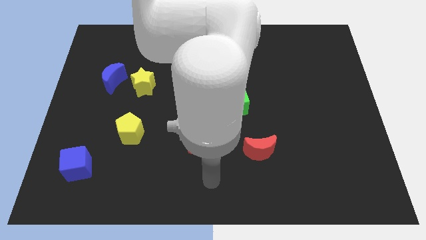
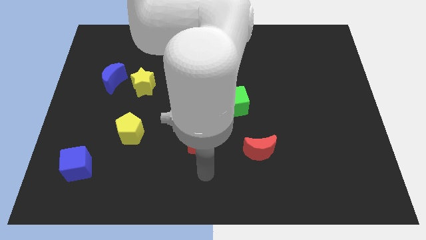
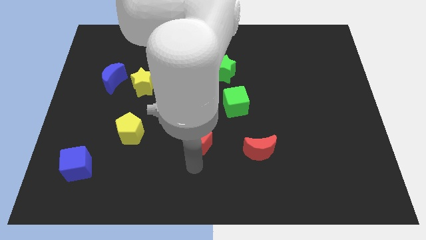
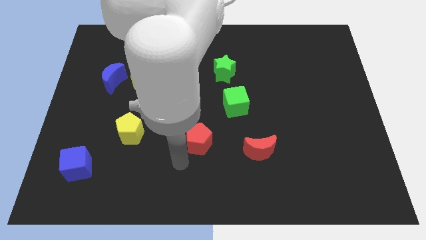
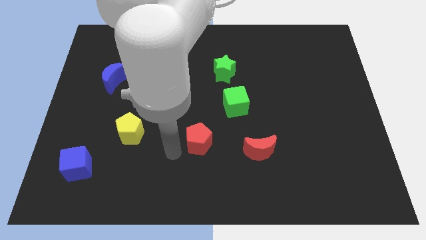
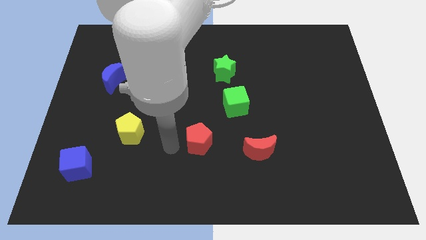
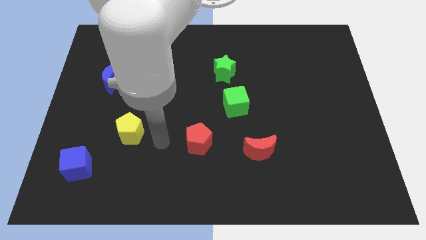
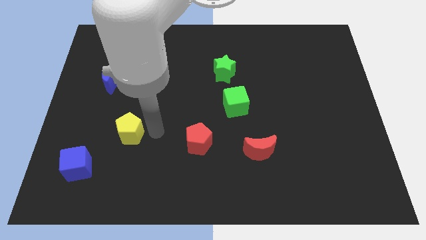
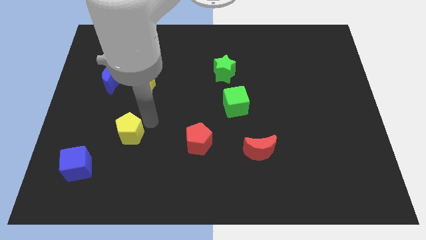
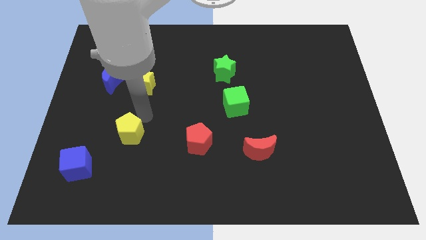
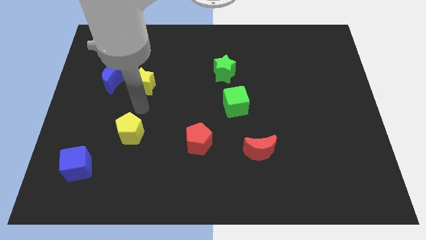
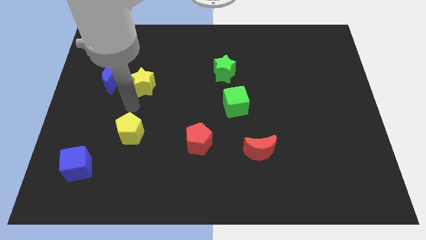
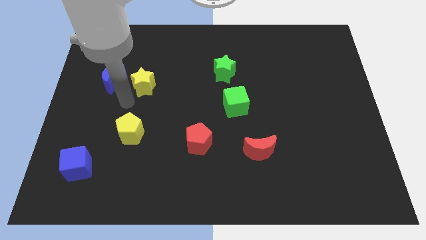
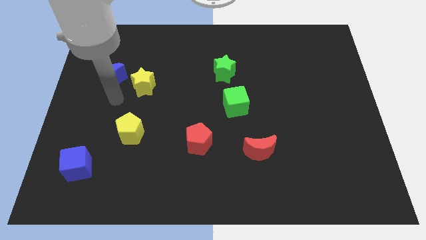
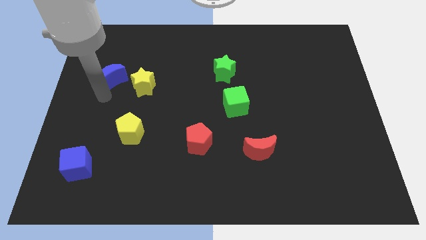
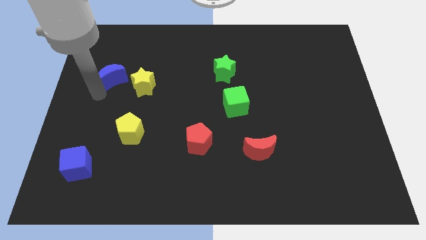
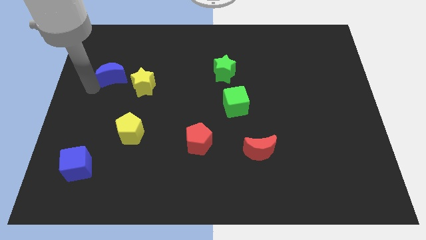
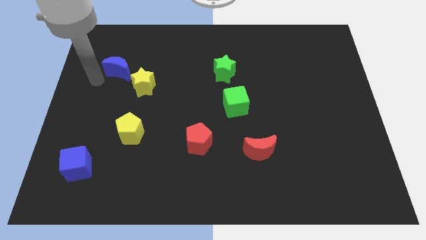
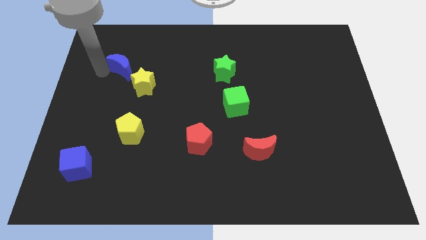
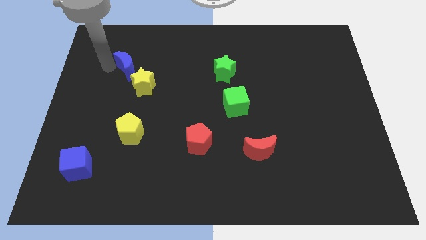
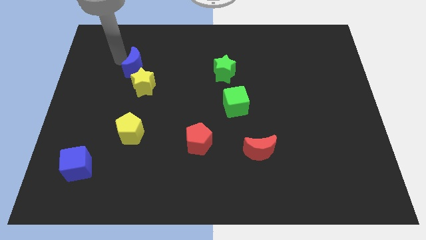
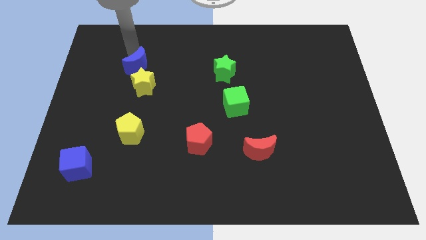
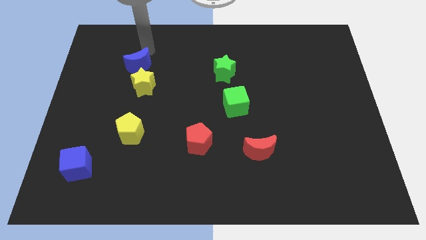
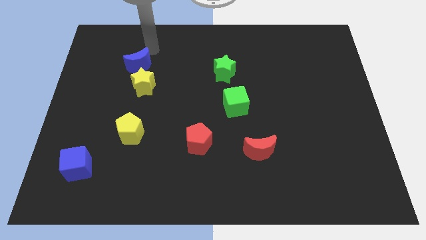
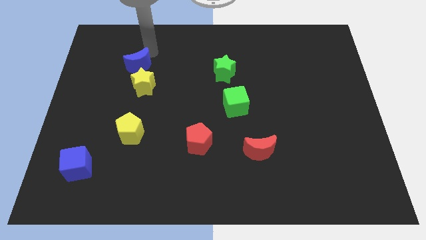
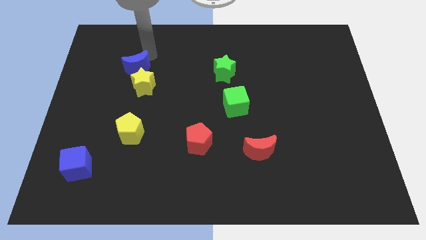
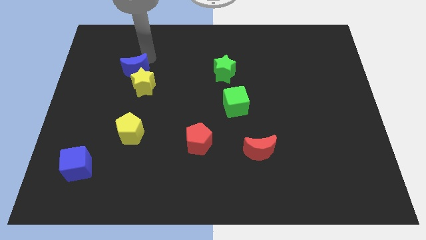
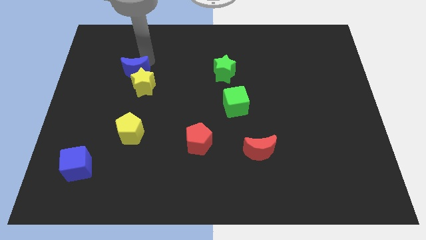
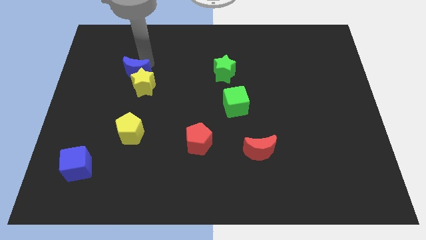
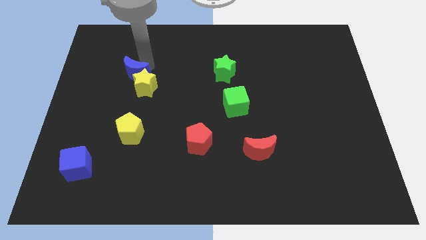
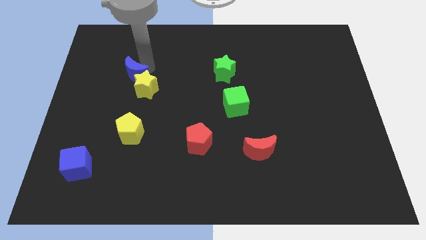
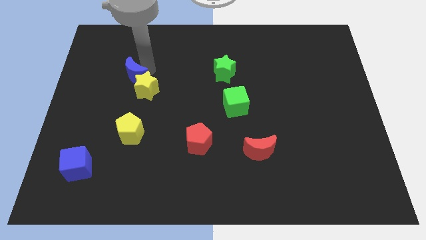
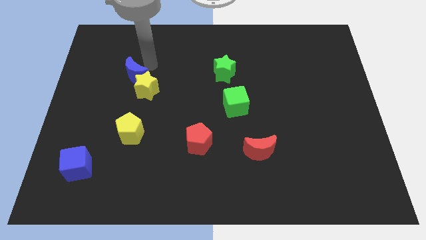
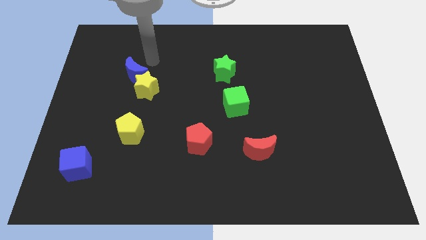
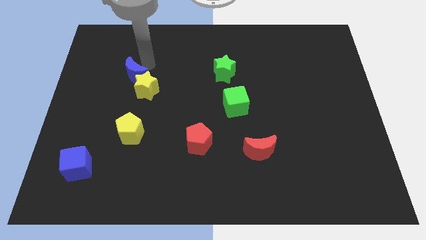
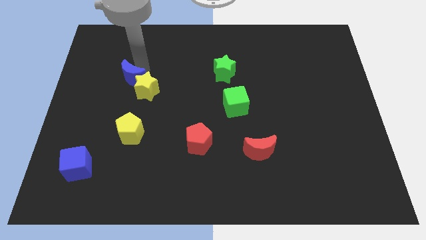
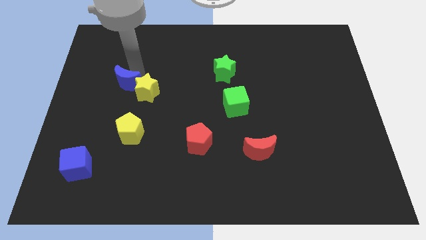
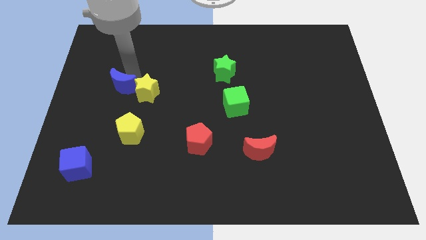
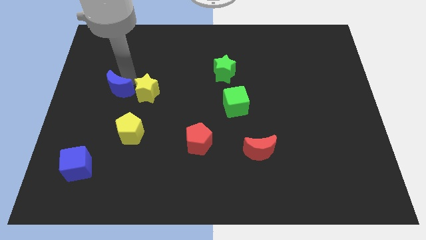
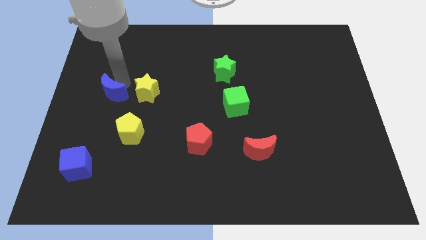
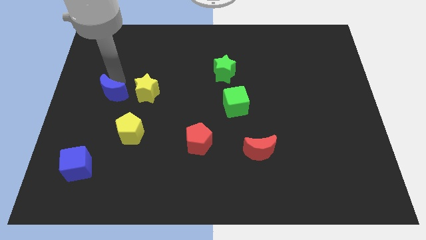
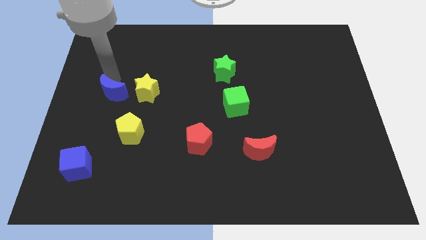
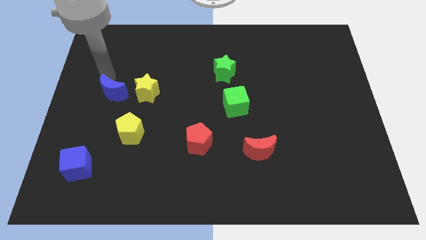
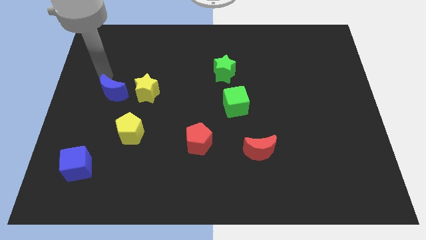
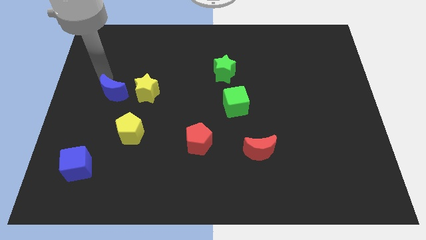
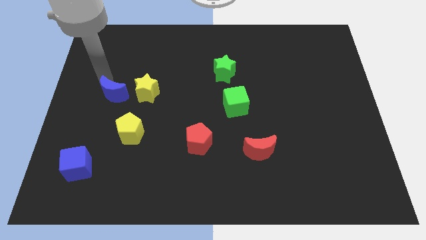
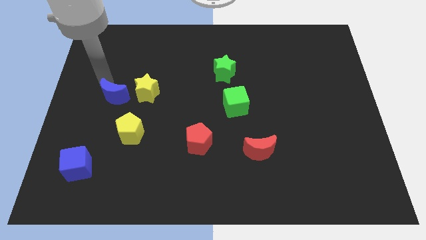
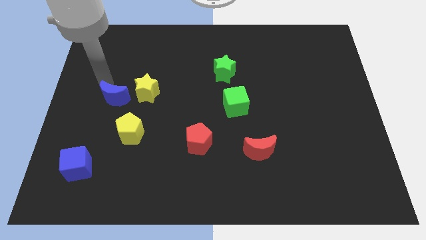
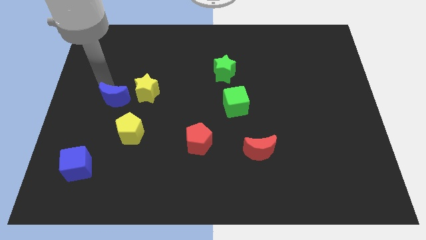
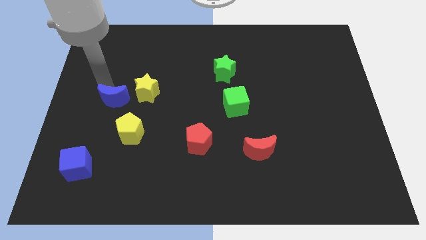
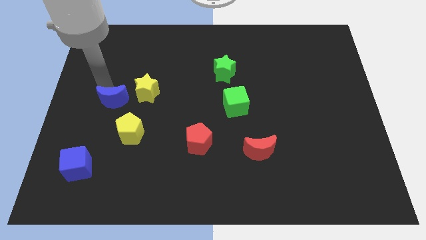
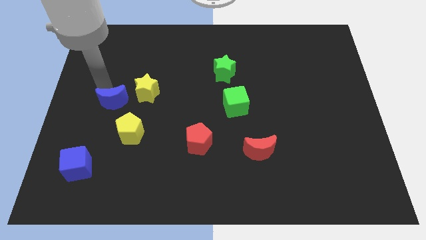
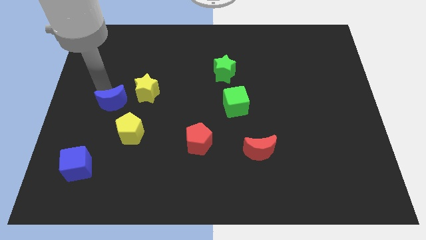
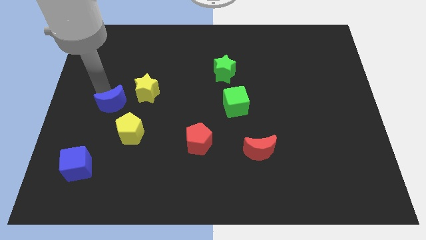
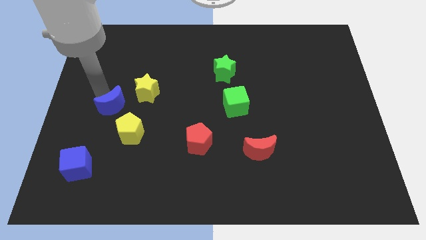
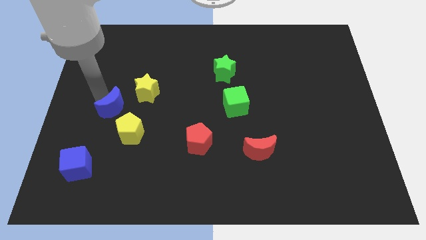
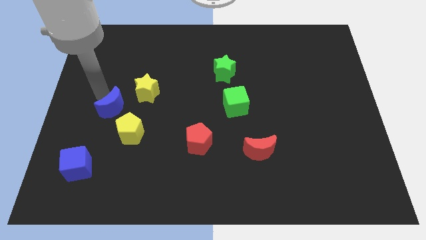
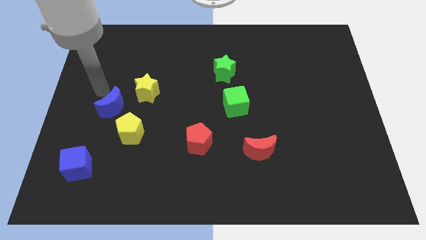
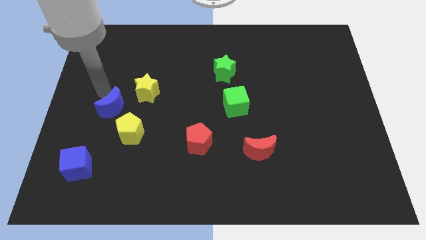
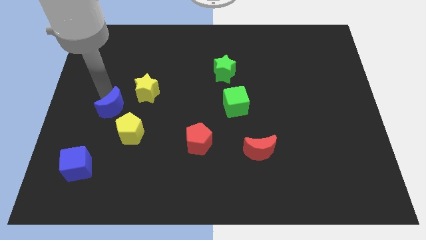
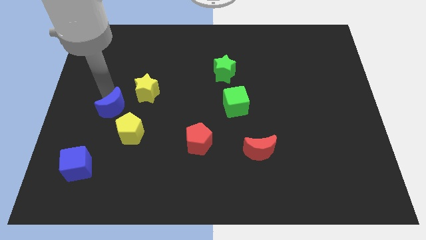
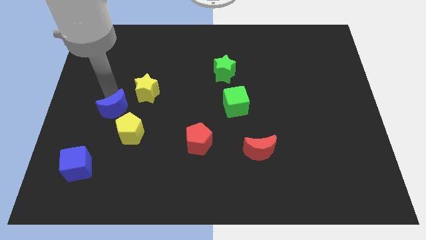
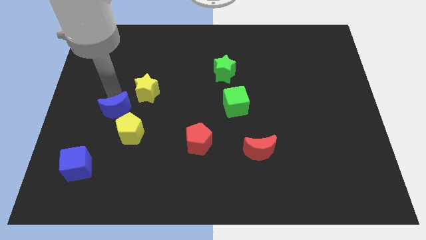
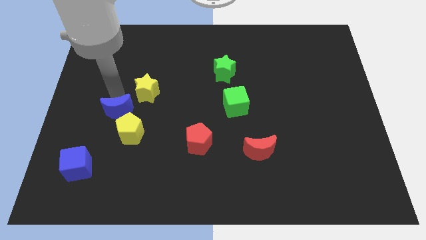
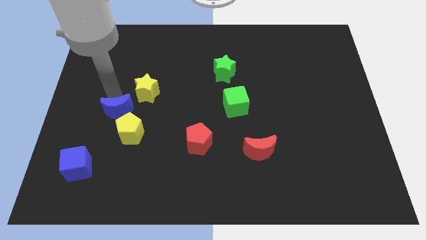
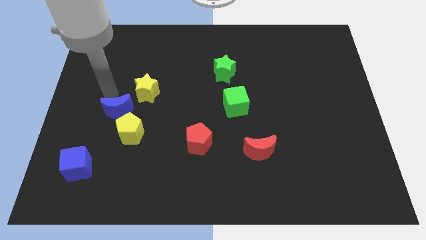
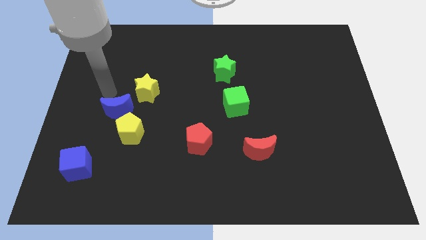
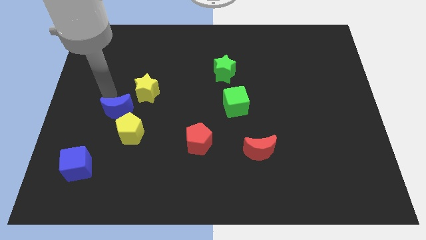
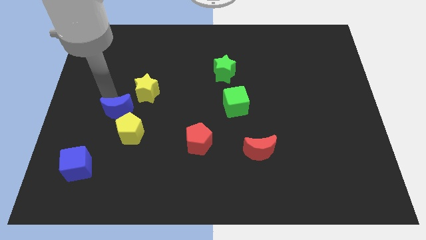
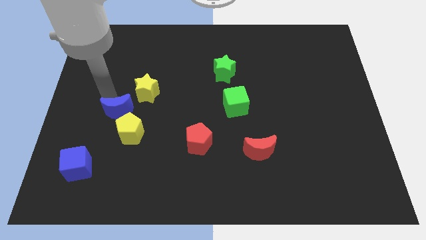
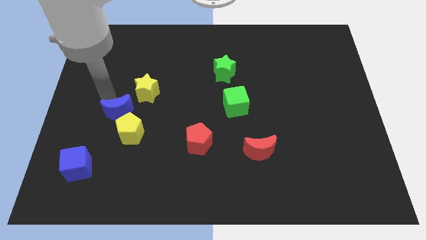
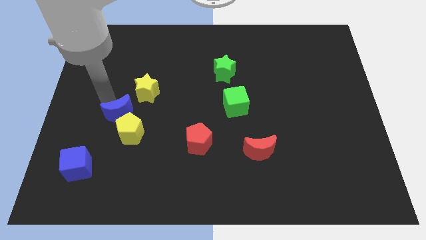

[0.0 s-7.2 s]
push the blue moon close to the yellow pentagon

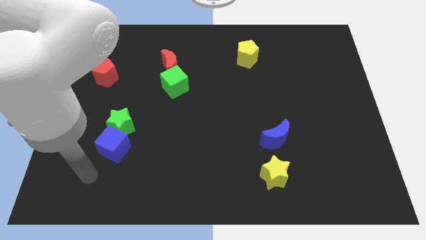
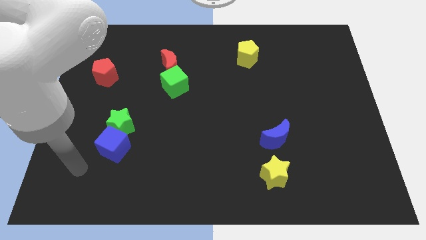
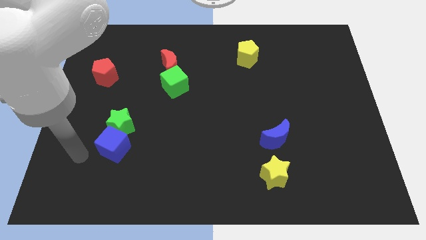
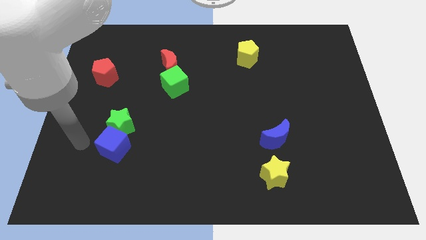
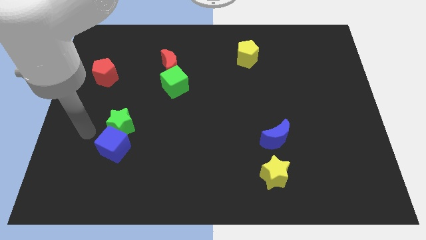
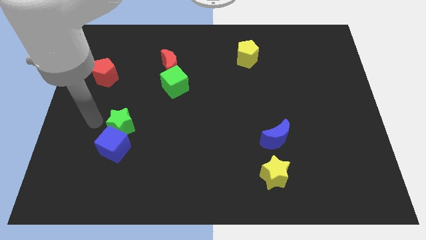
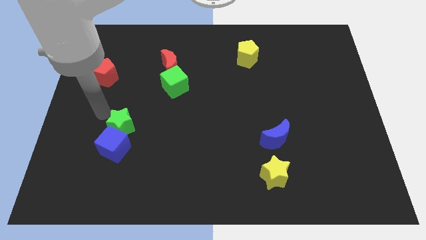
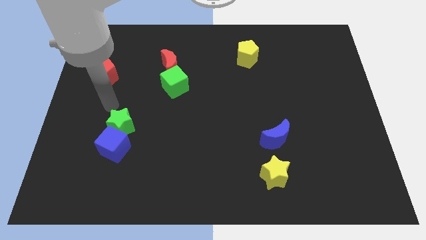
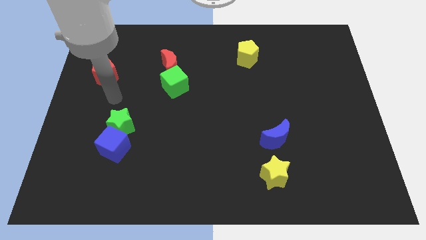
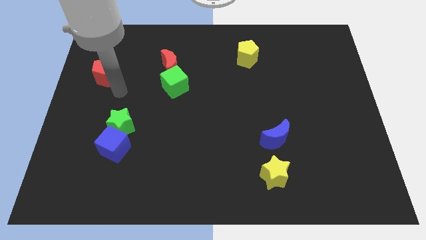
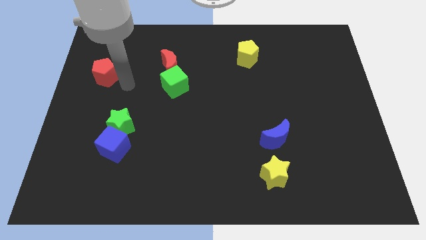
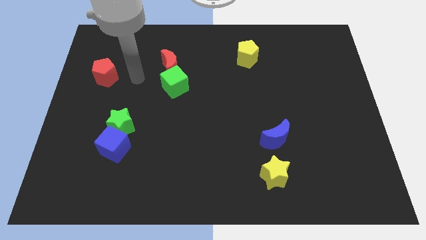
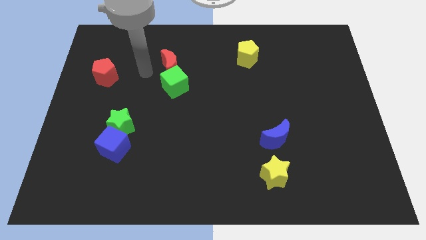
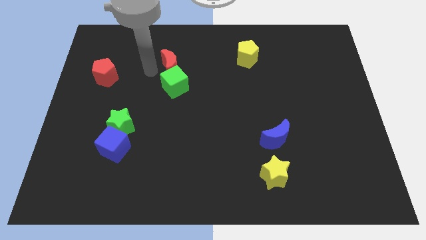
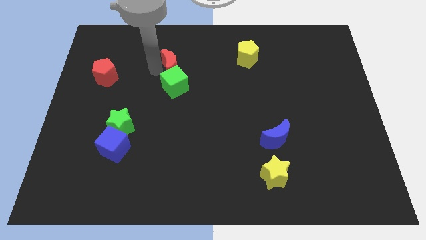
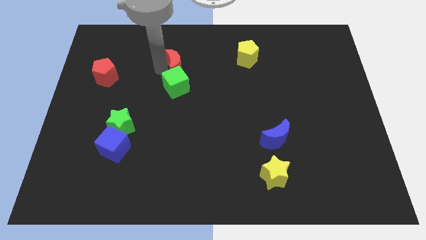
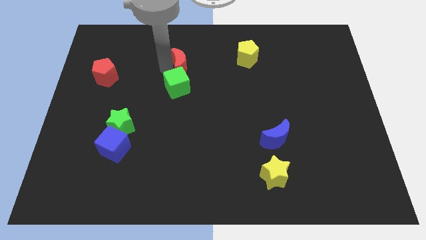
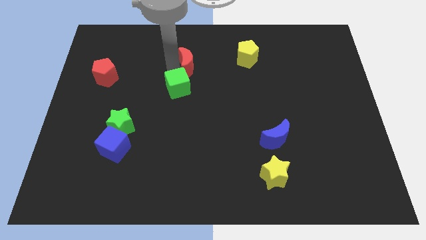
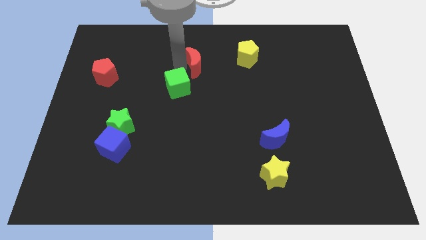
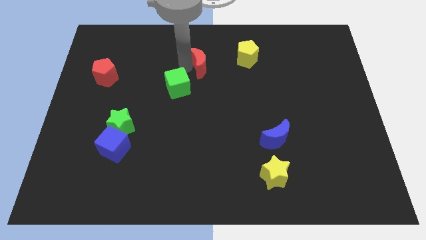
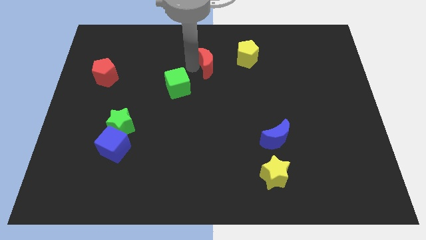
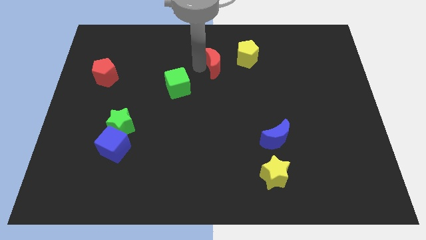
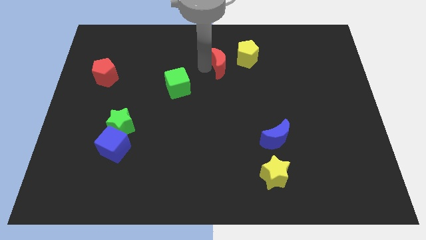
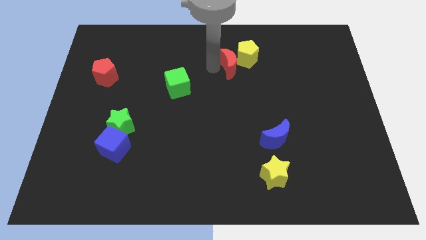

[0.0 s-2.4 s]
slide the red moon next to the yellow pentagon
